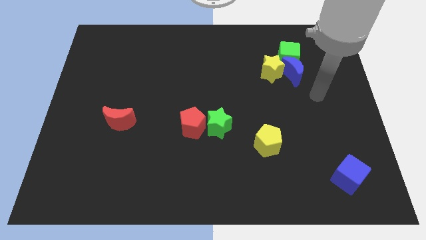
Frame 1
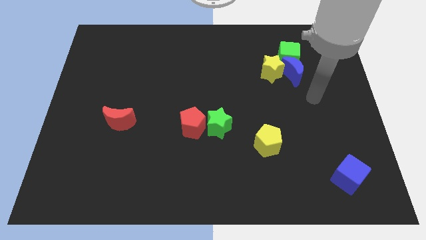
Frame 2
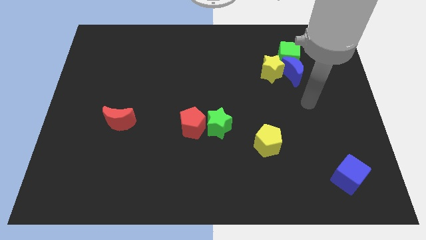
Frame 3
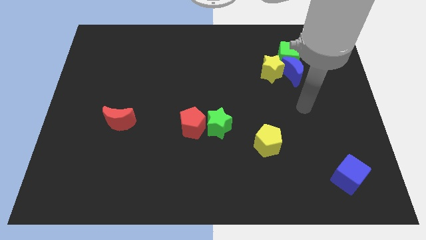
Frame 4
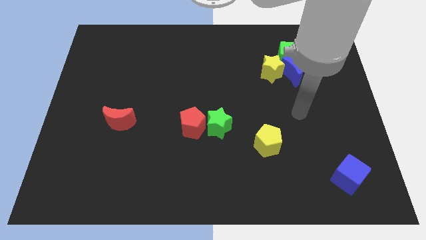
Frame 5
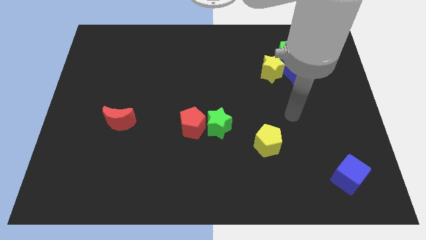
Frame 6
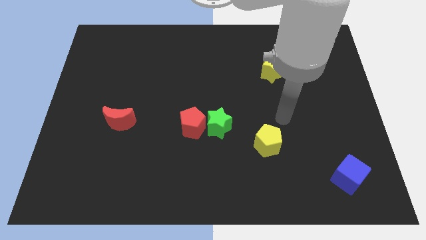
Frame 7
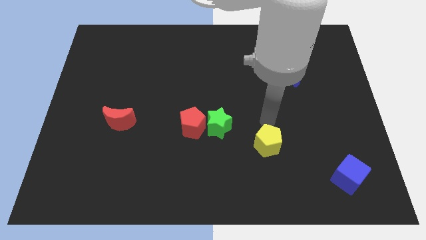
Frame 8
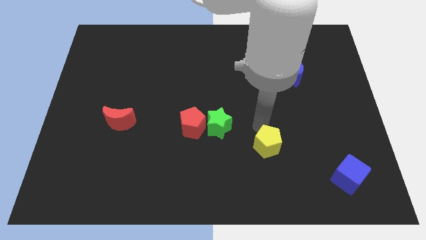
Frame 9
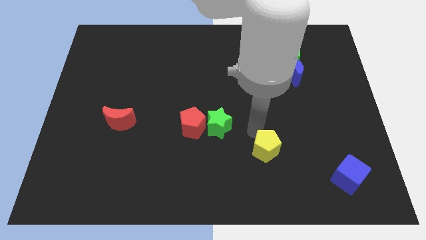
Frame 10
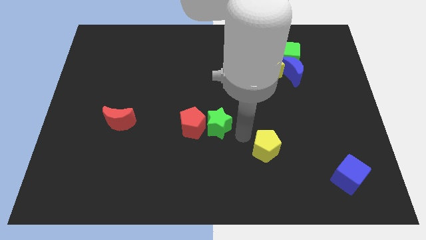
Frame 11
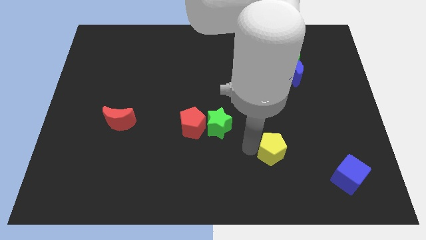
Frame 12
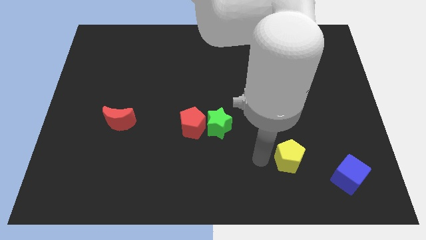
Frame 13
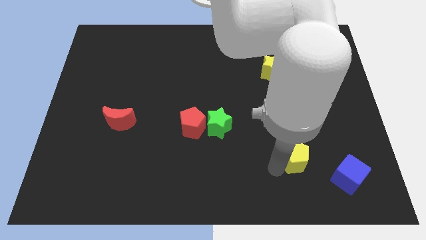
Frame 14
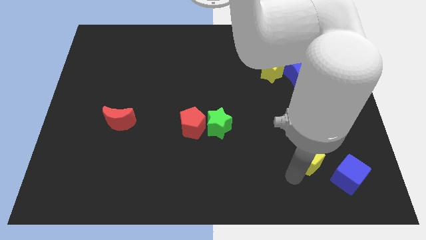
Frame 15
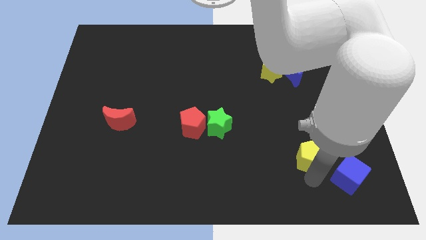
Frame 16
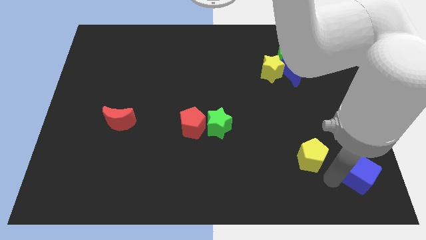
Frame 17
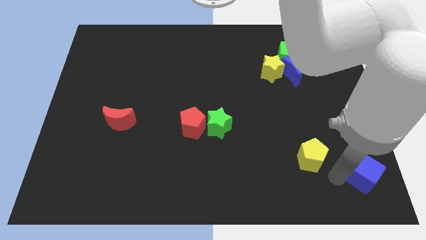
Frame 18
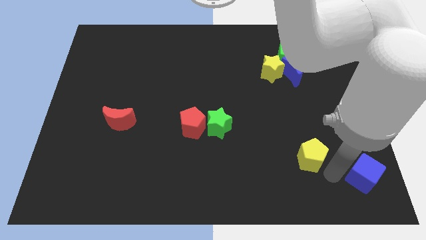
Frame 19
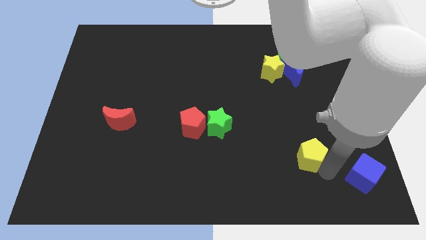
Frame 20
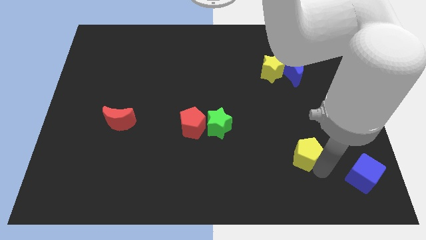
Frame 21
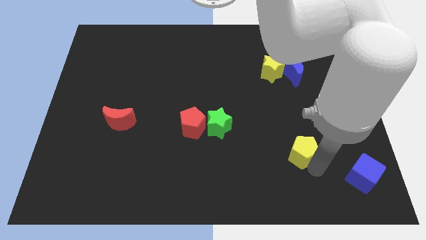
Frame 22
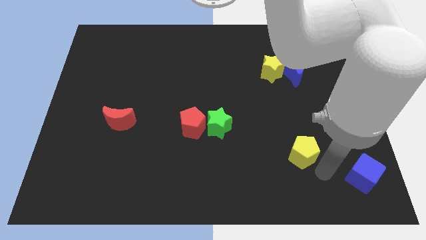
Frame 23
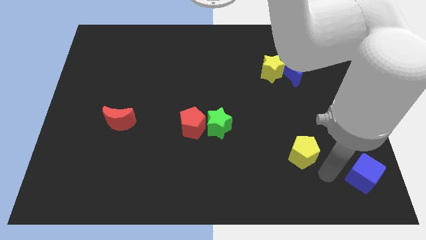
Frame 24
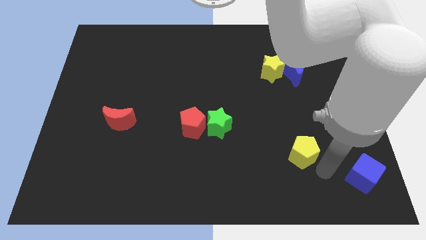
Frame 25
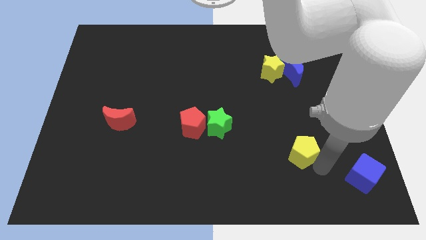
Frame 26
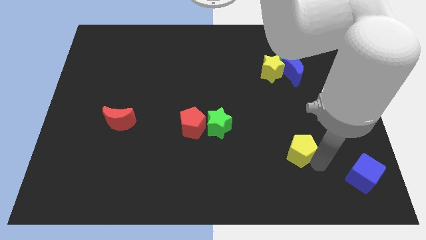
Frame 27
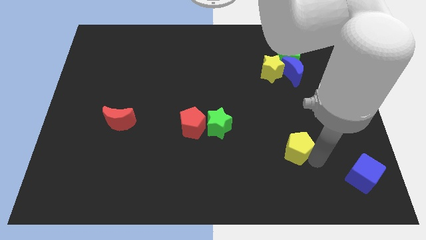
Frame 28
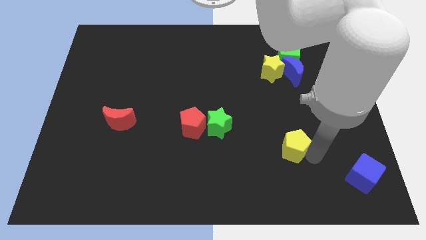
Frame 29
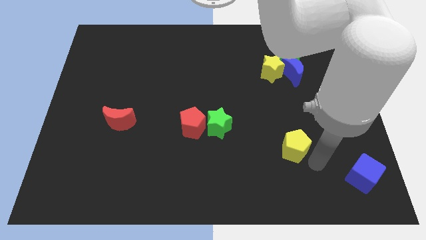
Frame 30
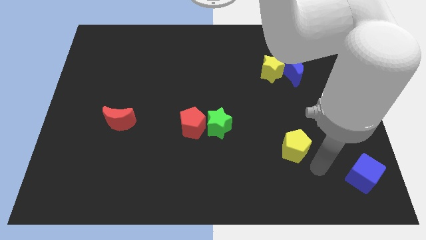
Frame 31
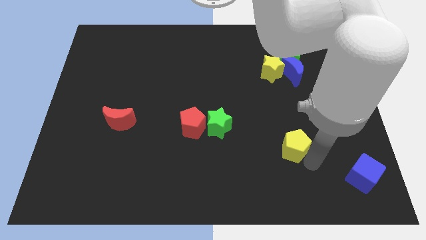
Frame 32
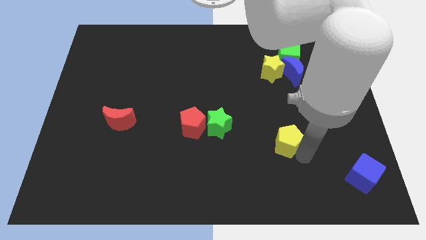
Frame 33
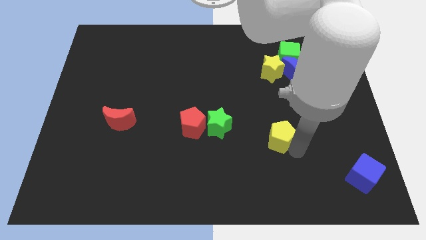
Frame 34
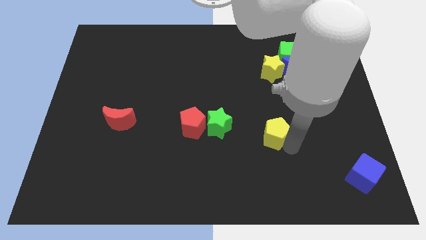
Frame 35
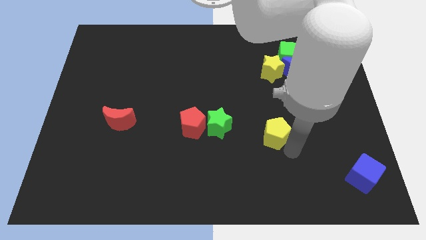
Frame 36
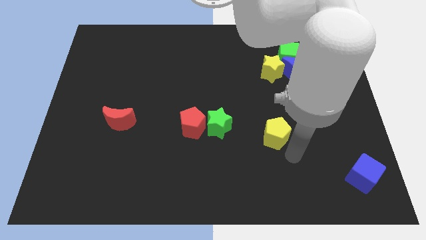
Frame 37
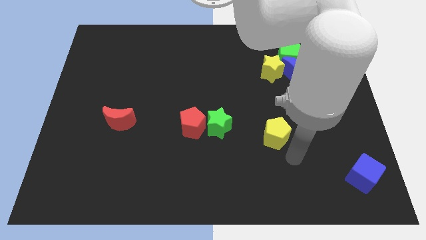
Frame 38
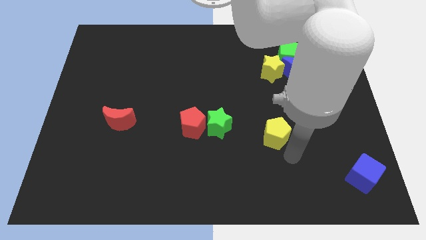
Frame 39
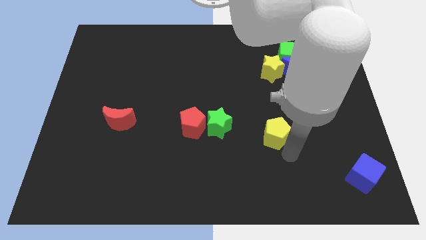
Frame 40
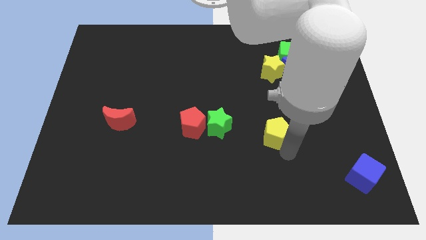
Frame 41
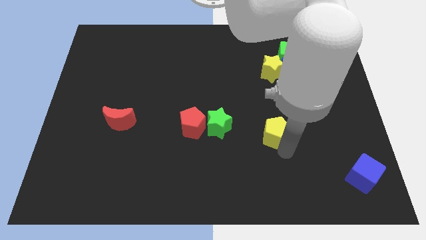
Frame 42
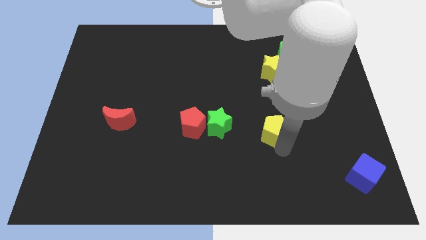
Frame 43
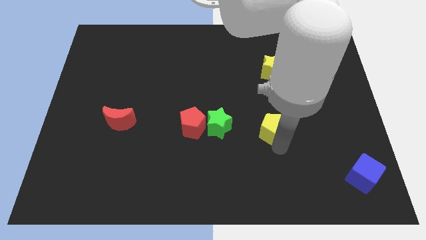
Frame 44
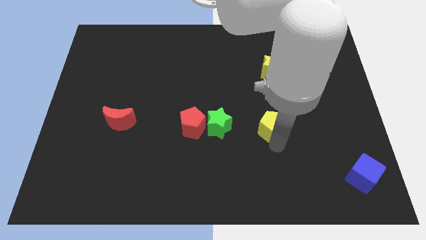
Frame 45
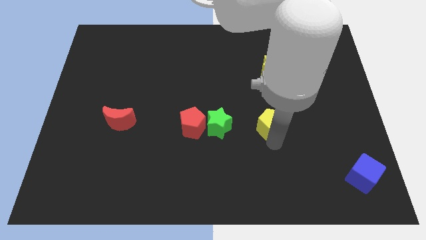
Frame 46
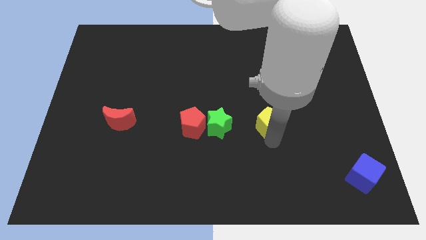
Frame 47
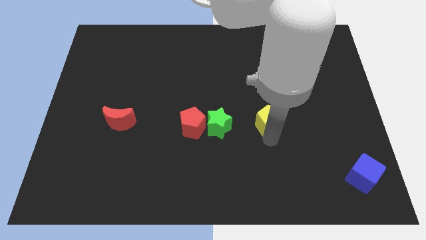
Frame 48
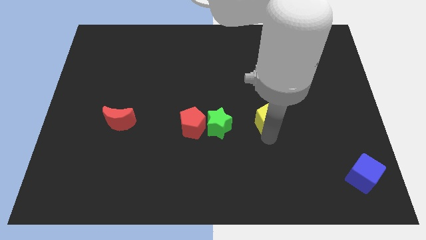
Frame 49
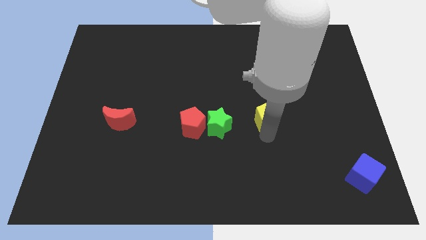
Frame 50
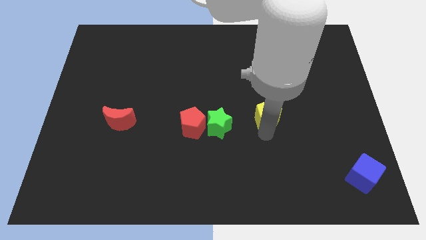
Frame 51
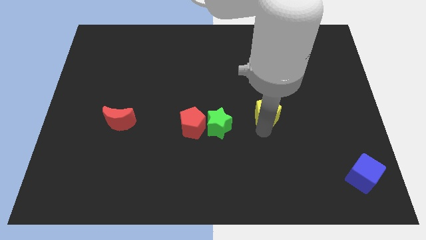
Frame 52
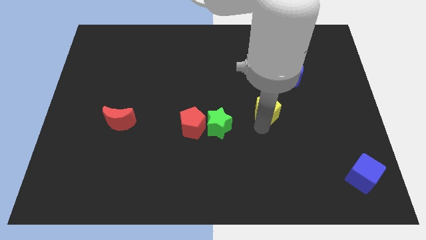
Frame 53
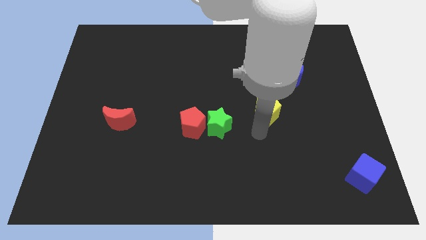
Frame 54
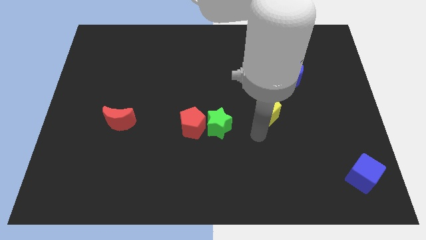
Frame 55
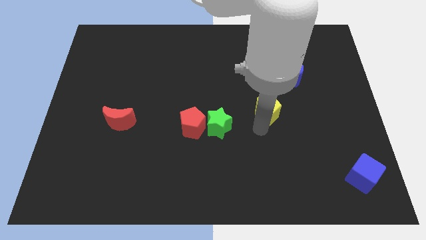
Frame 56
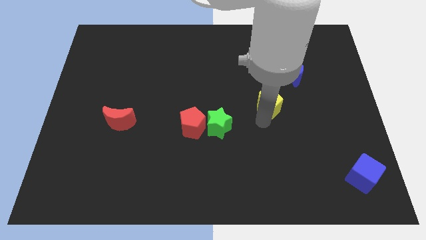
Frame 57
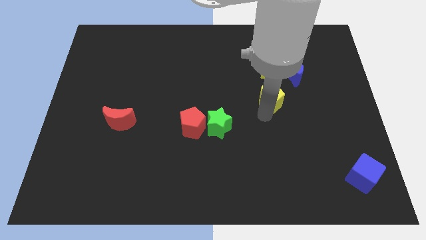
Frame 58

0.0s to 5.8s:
move the yellow pentagon to the bottom left of the blue moon

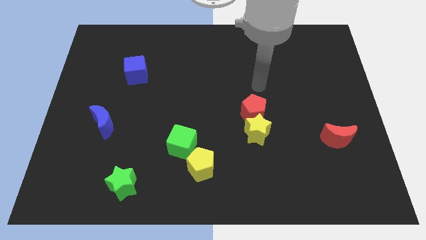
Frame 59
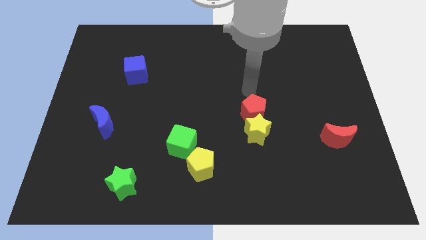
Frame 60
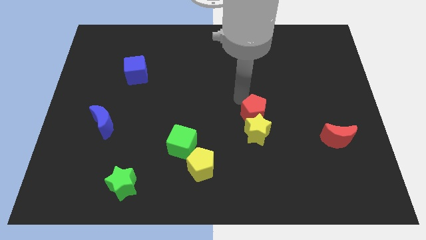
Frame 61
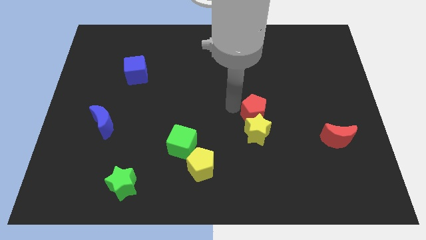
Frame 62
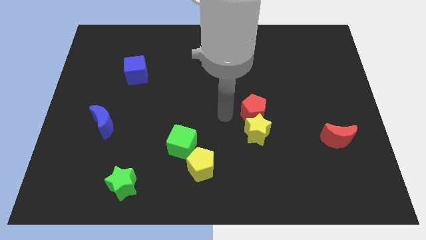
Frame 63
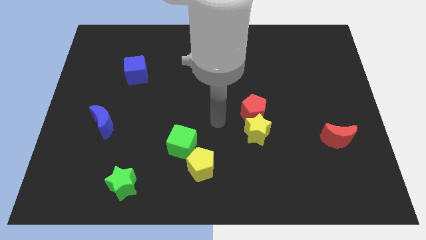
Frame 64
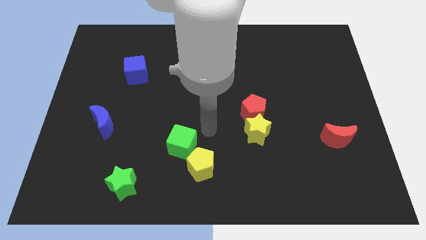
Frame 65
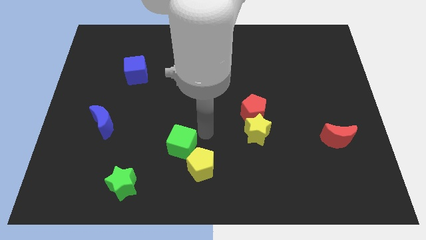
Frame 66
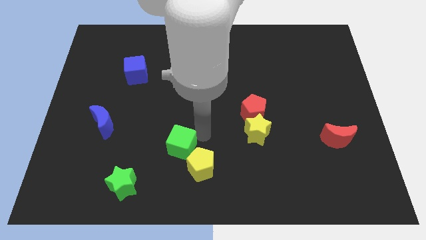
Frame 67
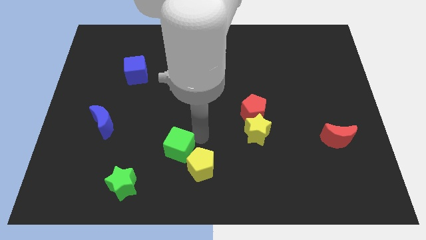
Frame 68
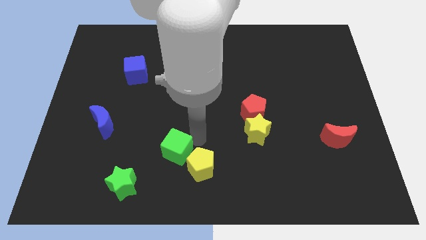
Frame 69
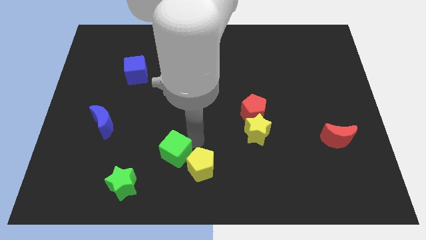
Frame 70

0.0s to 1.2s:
push the green cube to the top right side of the green star
